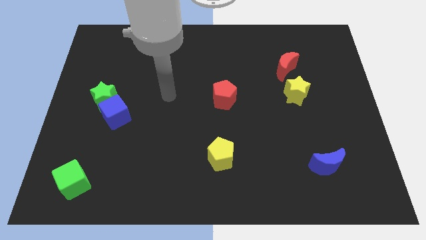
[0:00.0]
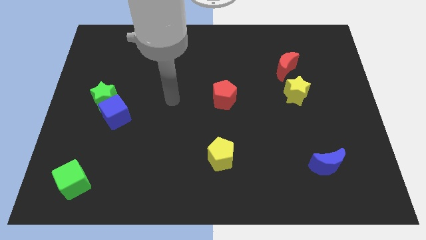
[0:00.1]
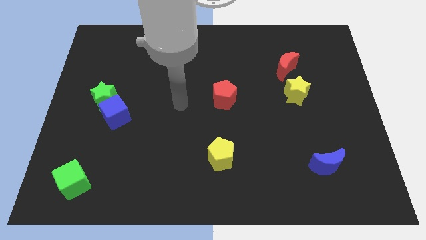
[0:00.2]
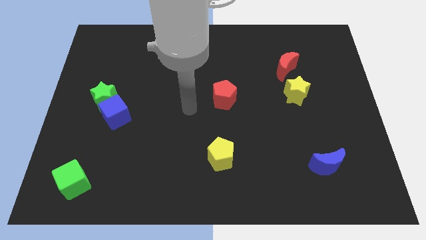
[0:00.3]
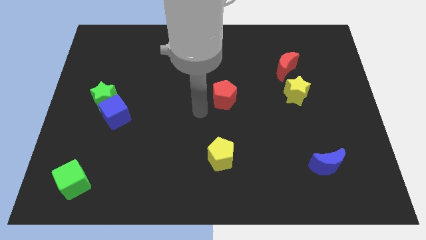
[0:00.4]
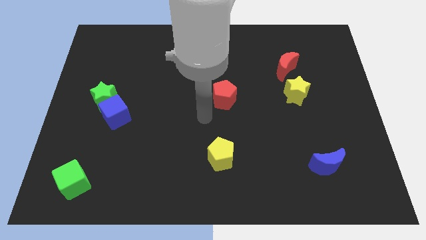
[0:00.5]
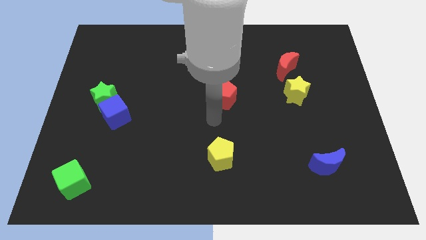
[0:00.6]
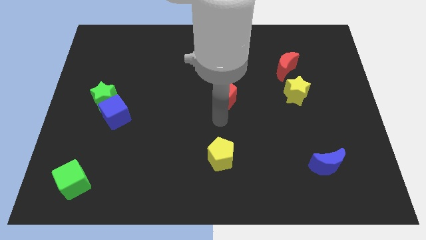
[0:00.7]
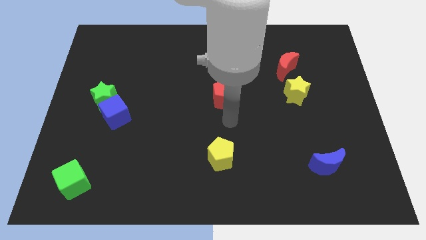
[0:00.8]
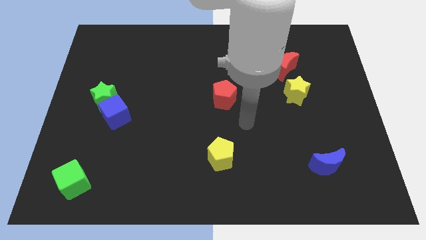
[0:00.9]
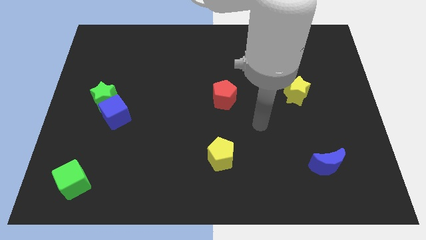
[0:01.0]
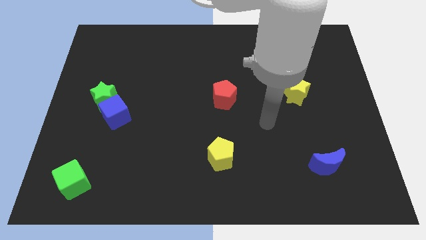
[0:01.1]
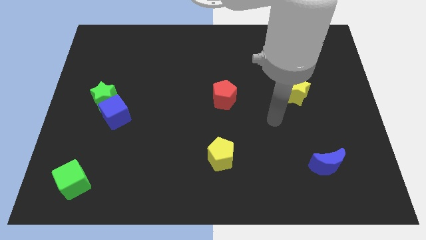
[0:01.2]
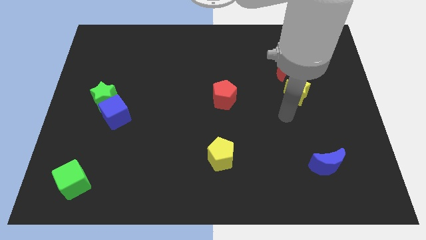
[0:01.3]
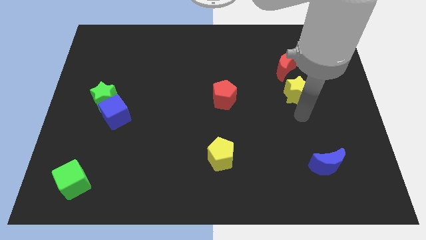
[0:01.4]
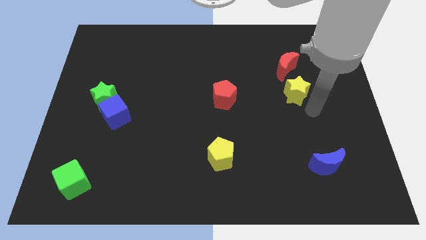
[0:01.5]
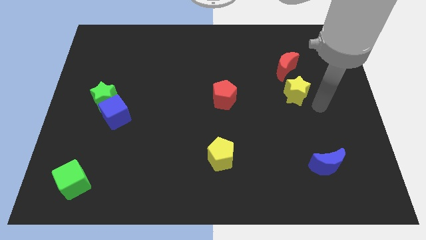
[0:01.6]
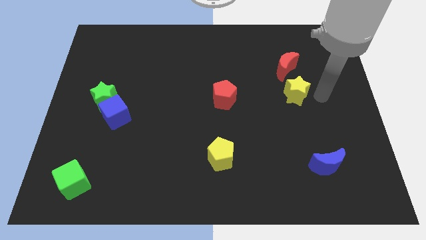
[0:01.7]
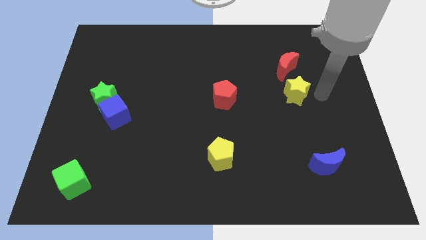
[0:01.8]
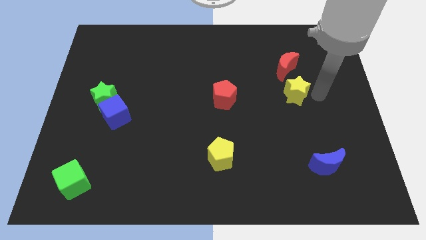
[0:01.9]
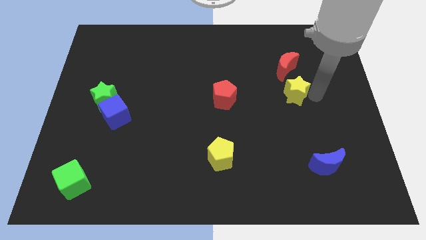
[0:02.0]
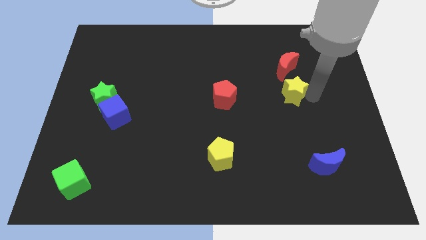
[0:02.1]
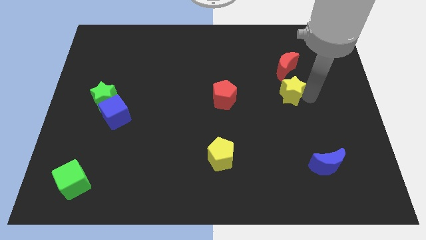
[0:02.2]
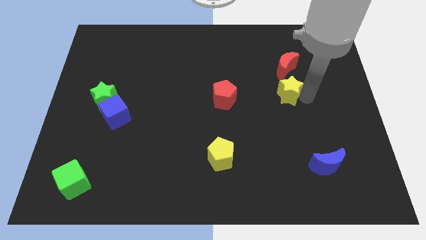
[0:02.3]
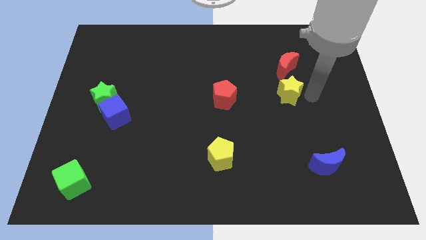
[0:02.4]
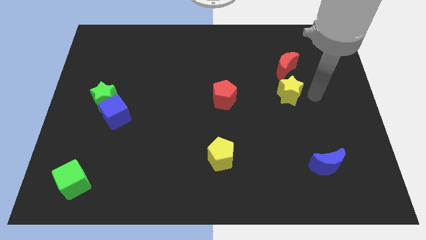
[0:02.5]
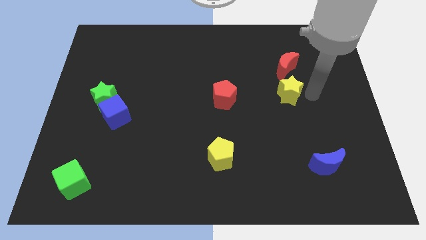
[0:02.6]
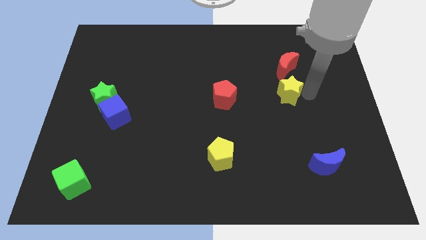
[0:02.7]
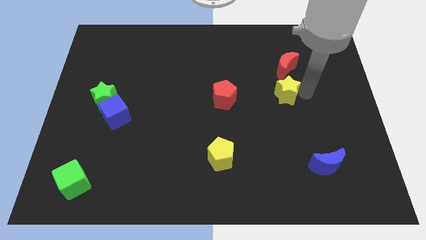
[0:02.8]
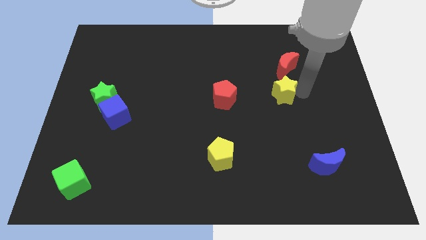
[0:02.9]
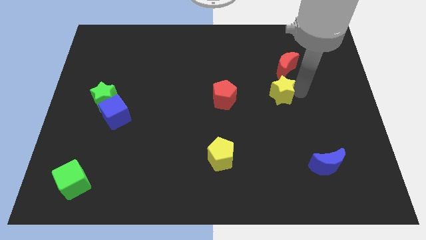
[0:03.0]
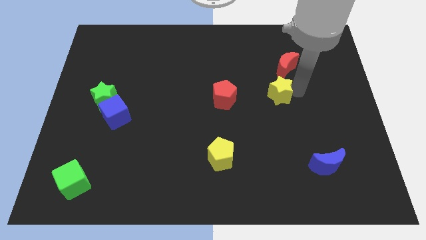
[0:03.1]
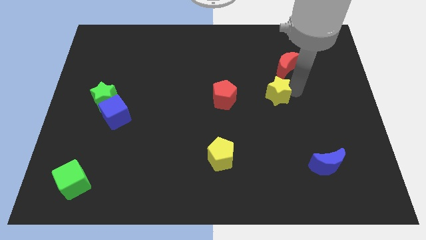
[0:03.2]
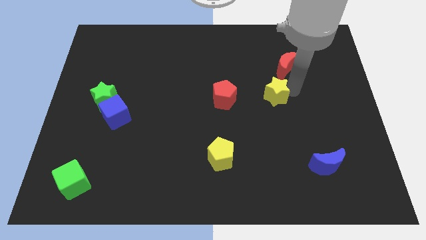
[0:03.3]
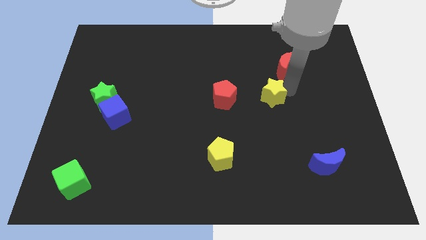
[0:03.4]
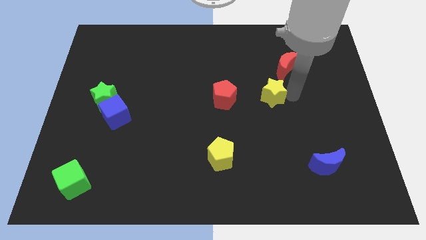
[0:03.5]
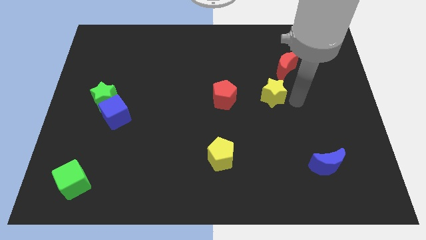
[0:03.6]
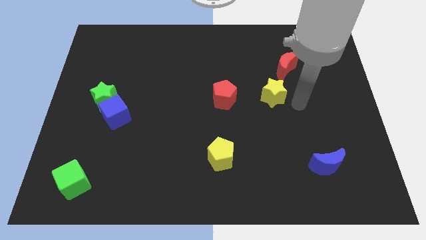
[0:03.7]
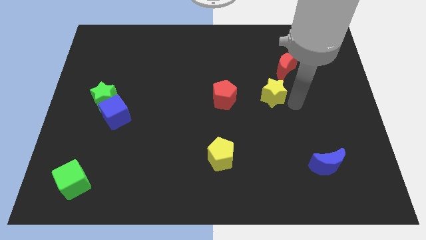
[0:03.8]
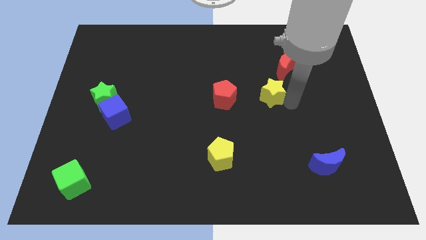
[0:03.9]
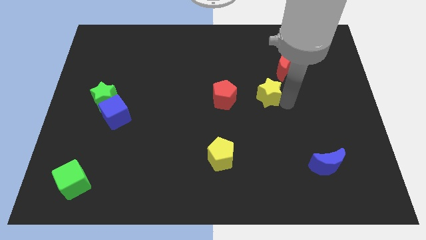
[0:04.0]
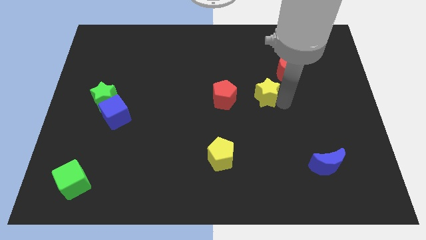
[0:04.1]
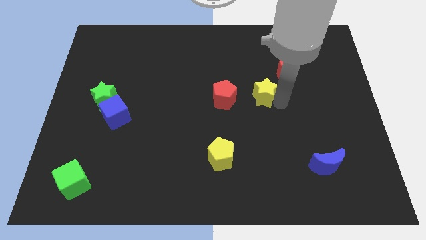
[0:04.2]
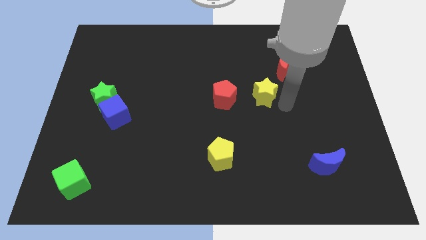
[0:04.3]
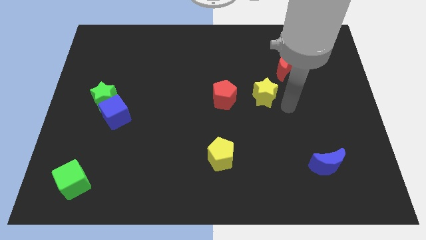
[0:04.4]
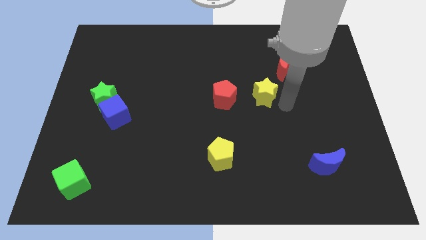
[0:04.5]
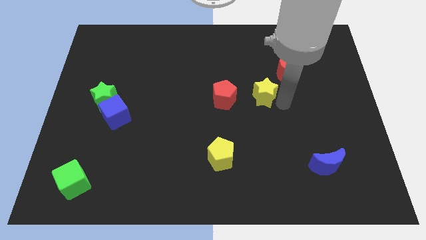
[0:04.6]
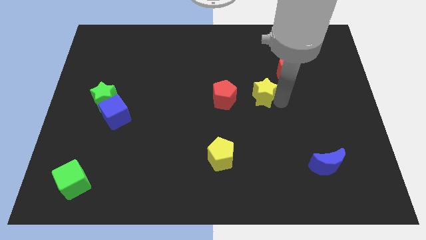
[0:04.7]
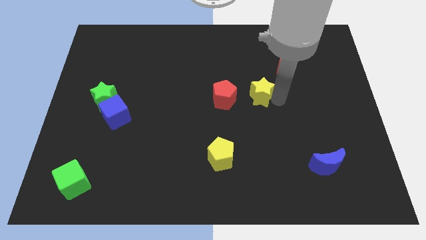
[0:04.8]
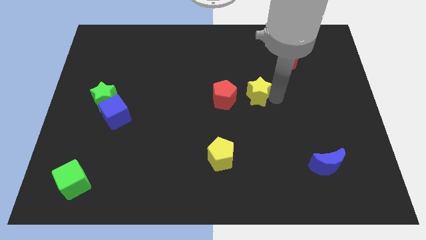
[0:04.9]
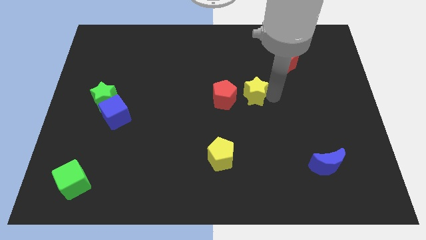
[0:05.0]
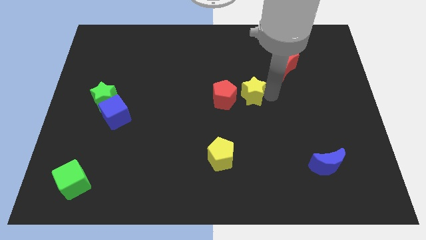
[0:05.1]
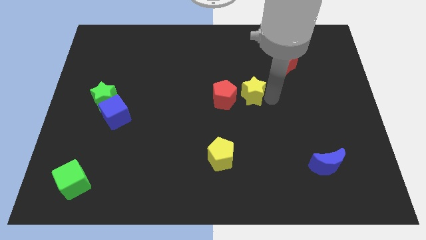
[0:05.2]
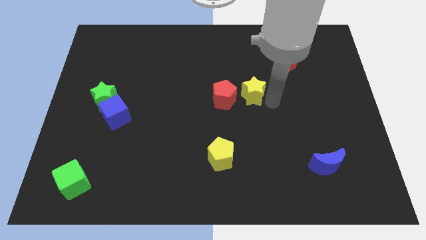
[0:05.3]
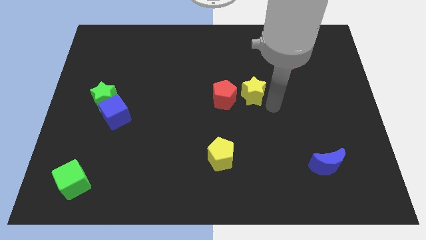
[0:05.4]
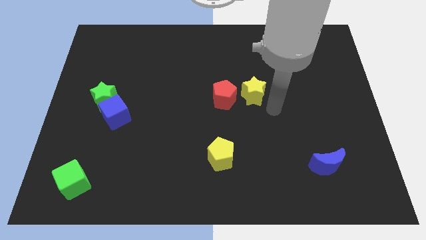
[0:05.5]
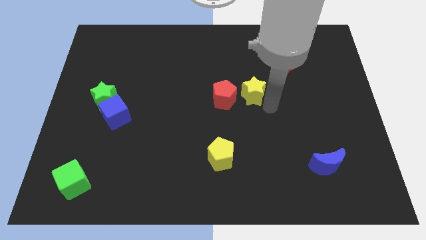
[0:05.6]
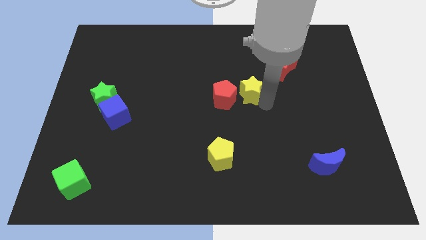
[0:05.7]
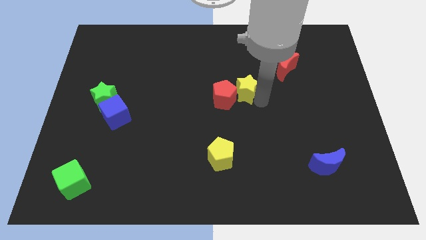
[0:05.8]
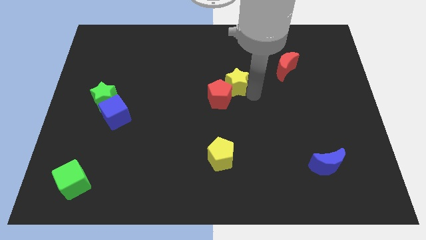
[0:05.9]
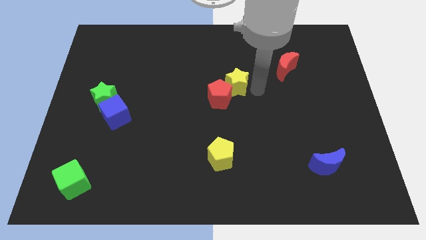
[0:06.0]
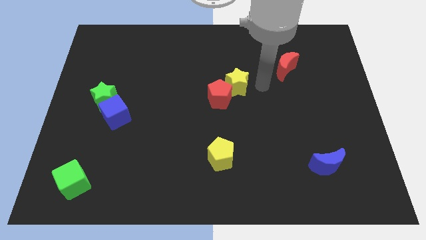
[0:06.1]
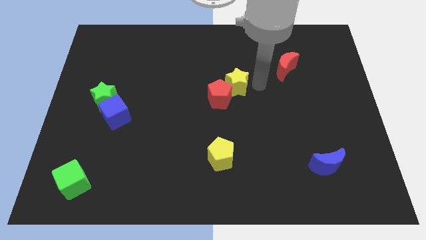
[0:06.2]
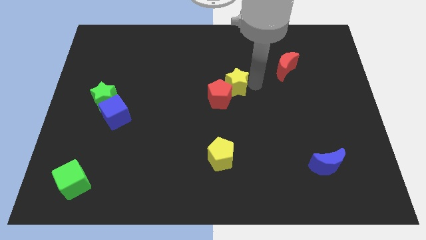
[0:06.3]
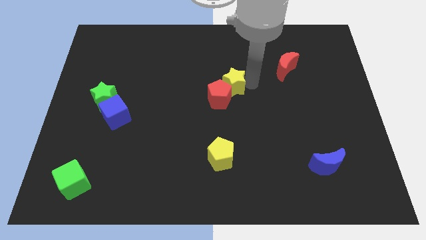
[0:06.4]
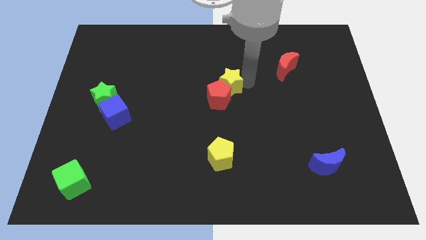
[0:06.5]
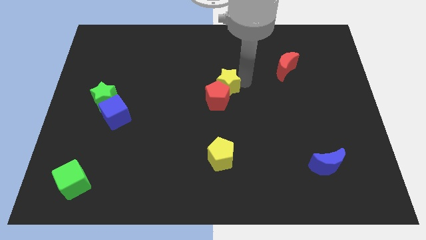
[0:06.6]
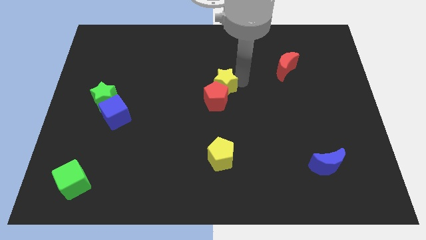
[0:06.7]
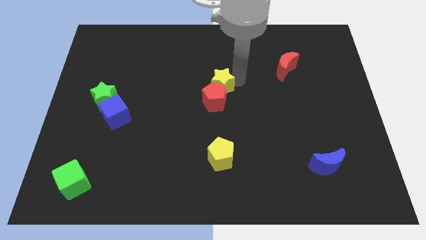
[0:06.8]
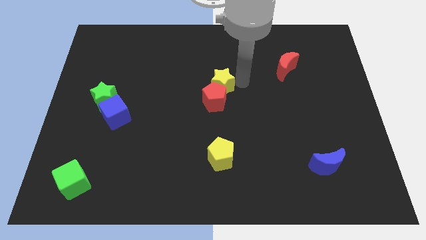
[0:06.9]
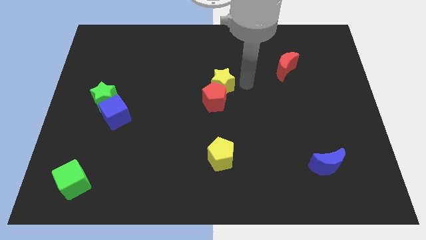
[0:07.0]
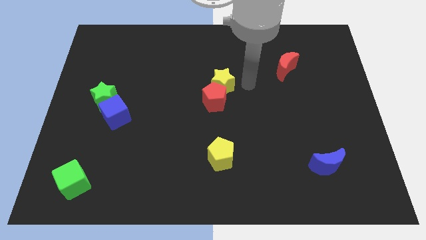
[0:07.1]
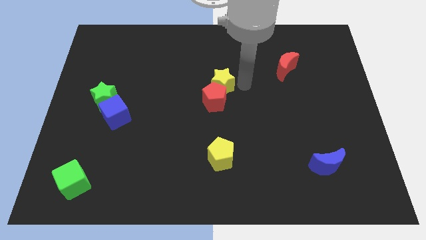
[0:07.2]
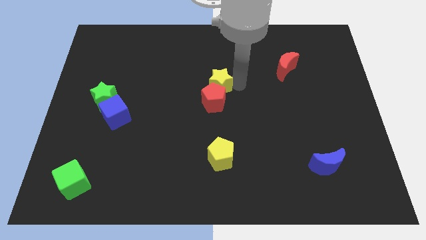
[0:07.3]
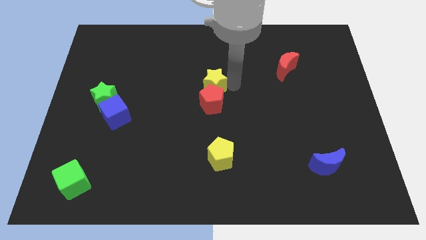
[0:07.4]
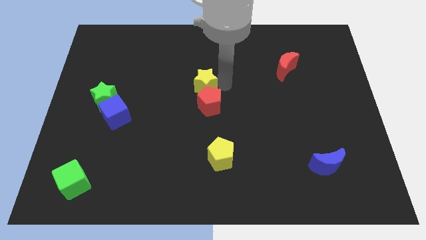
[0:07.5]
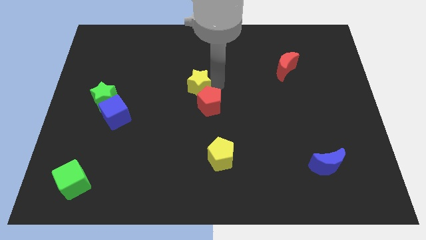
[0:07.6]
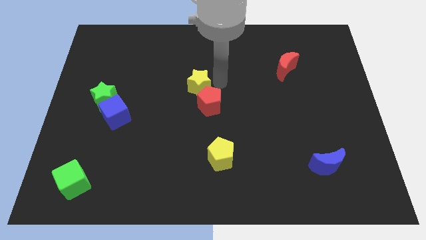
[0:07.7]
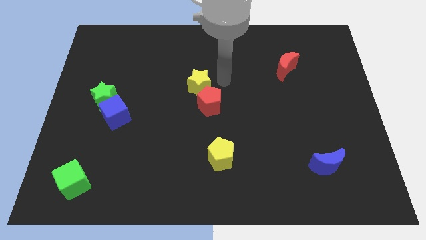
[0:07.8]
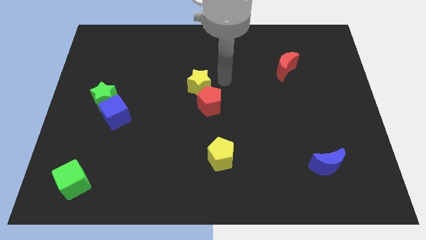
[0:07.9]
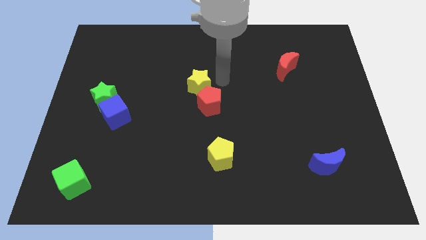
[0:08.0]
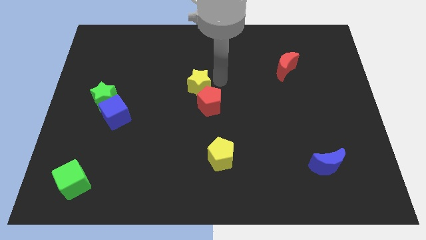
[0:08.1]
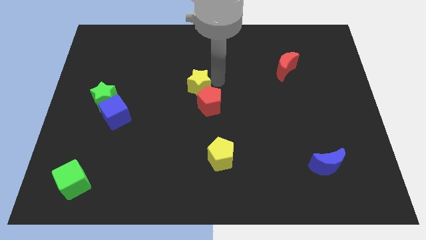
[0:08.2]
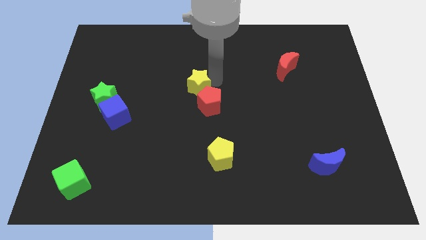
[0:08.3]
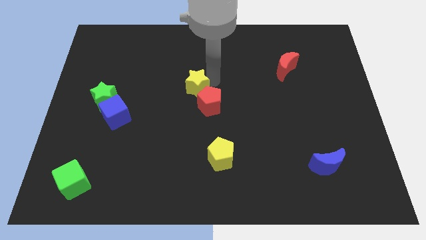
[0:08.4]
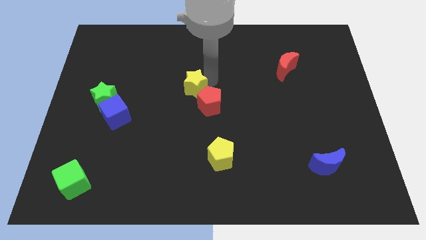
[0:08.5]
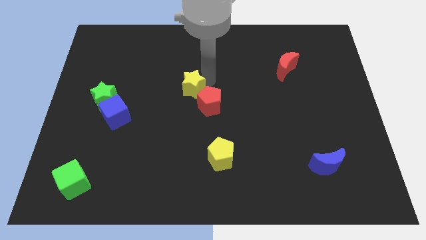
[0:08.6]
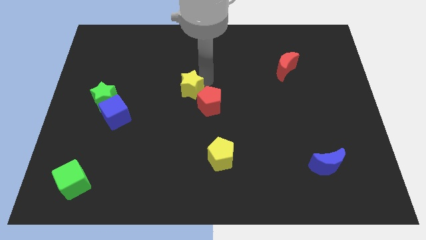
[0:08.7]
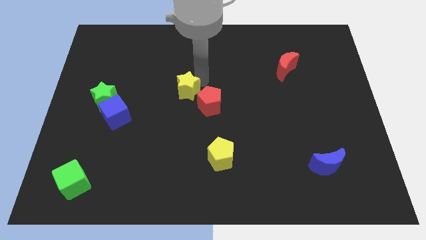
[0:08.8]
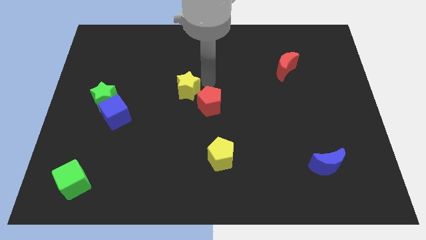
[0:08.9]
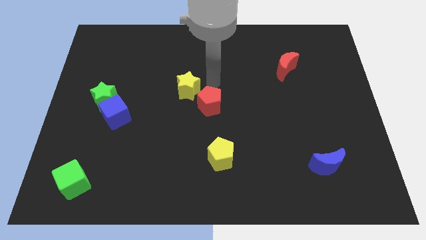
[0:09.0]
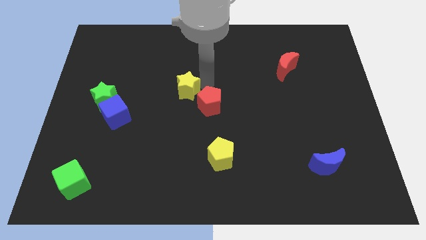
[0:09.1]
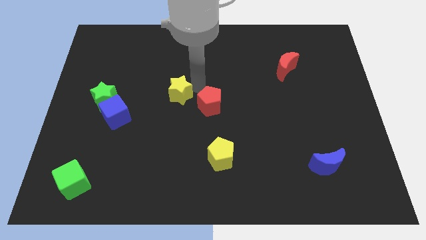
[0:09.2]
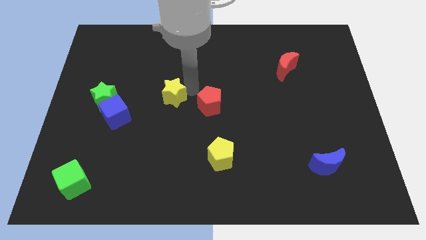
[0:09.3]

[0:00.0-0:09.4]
slide the yellow star to the right side of the green star
